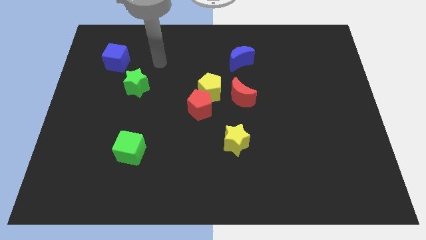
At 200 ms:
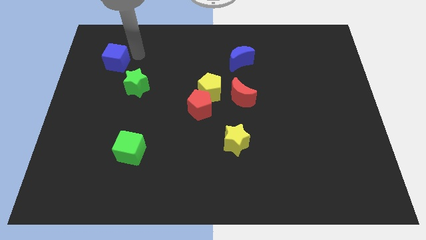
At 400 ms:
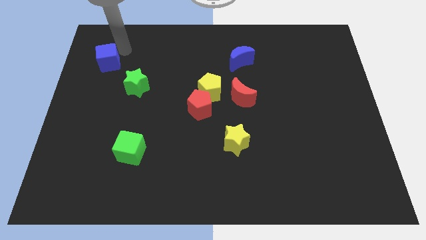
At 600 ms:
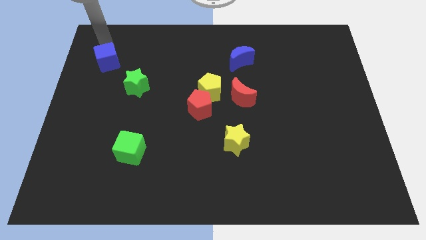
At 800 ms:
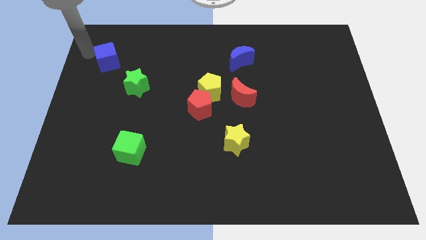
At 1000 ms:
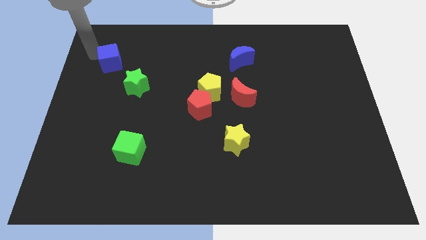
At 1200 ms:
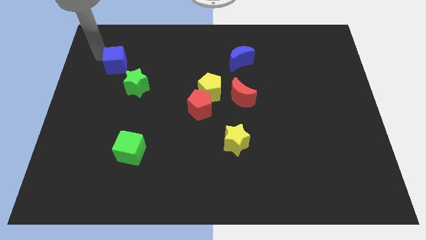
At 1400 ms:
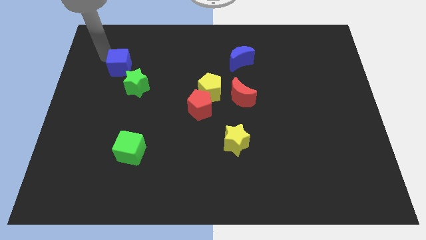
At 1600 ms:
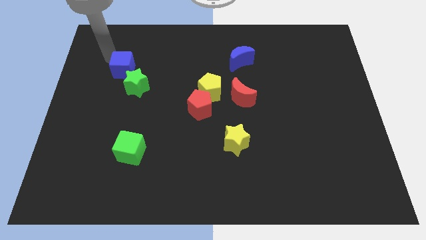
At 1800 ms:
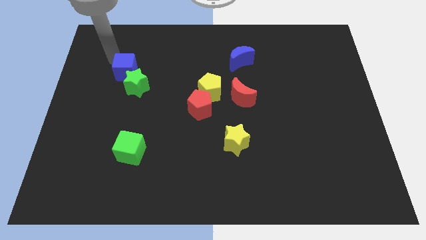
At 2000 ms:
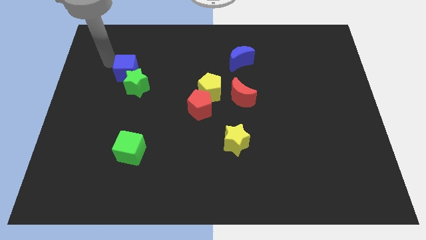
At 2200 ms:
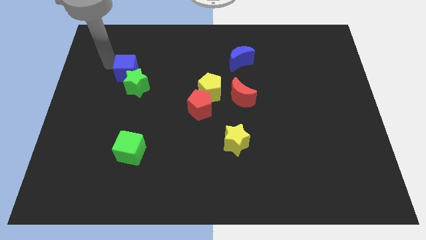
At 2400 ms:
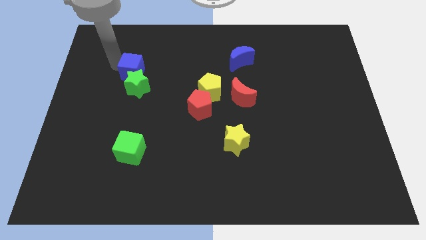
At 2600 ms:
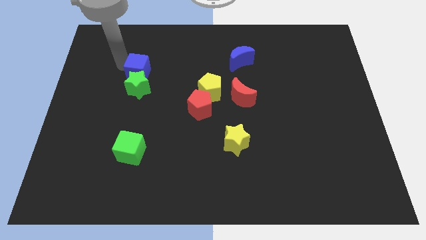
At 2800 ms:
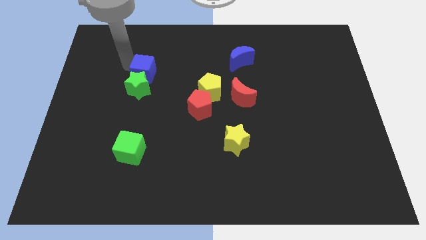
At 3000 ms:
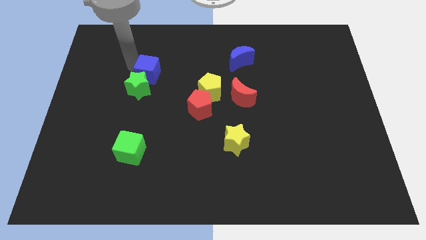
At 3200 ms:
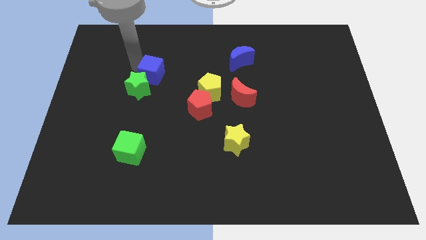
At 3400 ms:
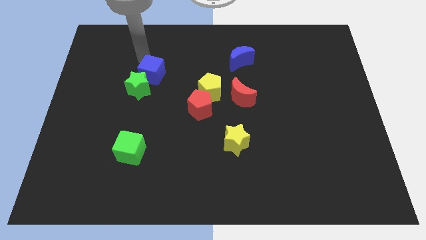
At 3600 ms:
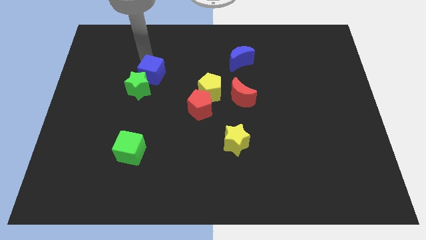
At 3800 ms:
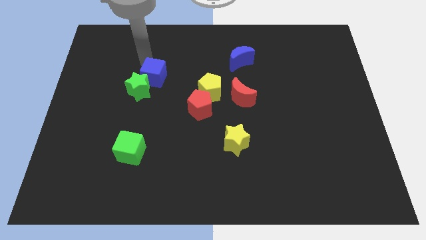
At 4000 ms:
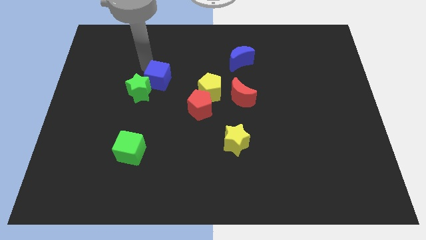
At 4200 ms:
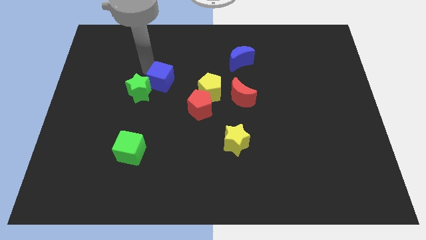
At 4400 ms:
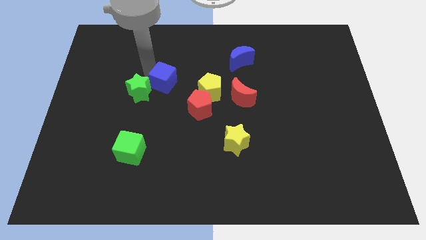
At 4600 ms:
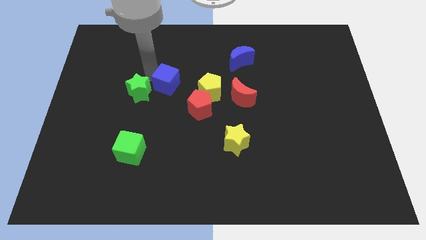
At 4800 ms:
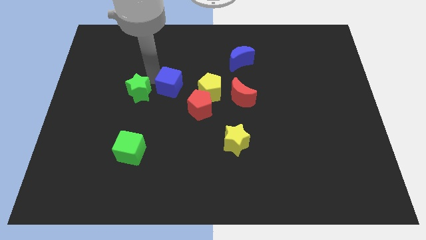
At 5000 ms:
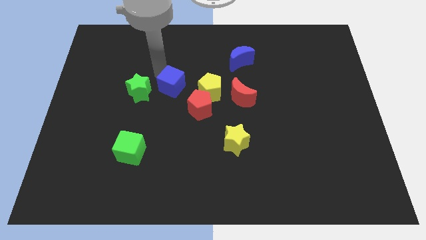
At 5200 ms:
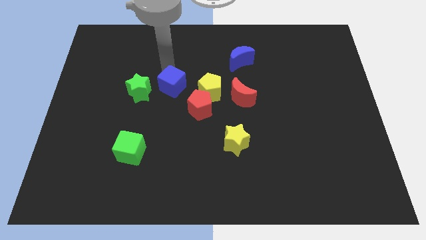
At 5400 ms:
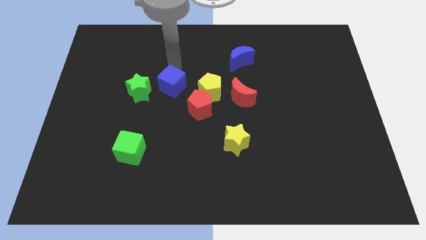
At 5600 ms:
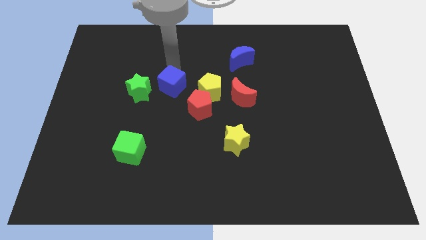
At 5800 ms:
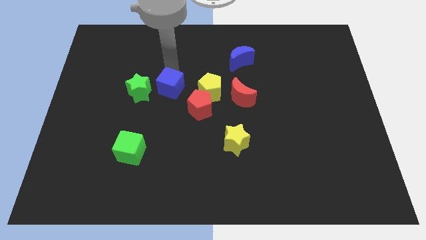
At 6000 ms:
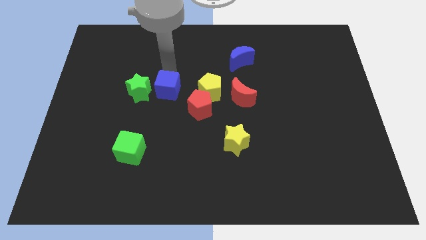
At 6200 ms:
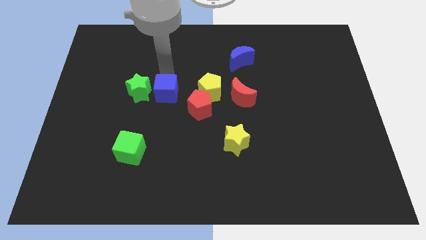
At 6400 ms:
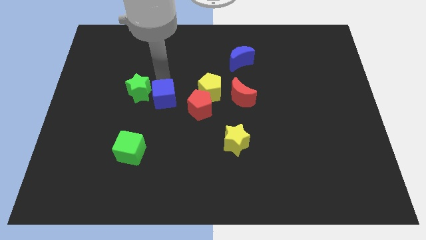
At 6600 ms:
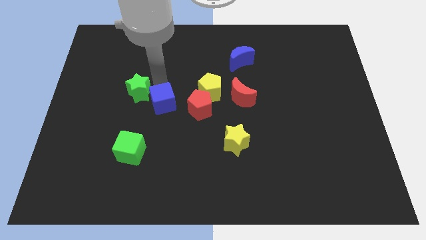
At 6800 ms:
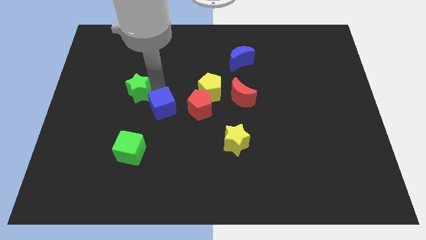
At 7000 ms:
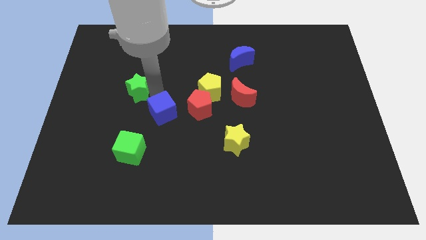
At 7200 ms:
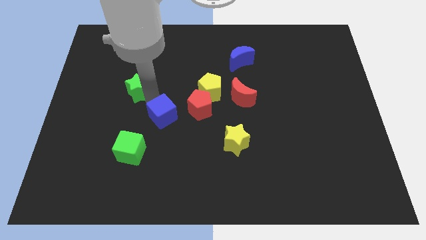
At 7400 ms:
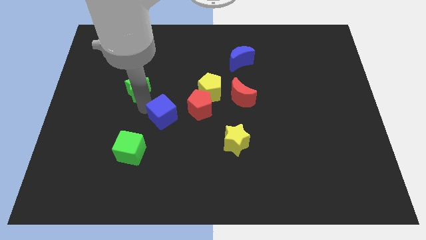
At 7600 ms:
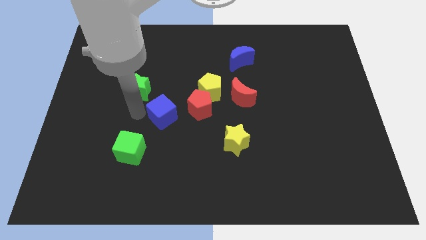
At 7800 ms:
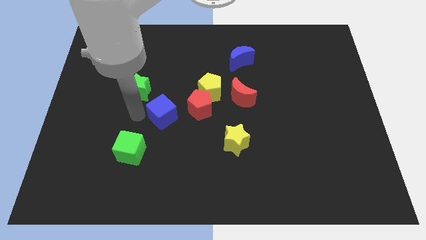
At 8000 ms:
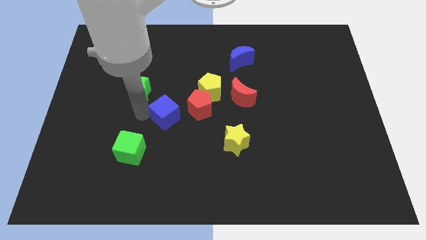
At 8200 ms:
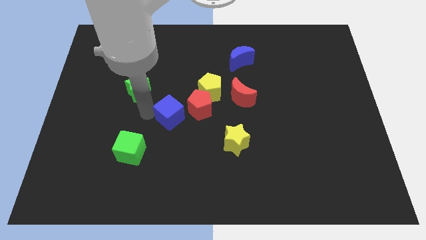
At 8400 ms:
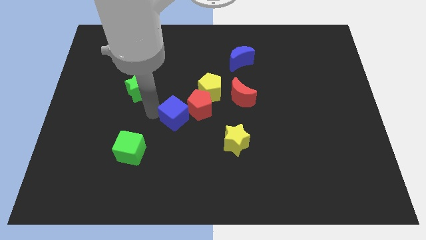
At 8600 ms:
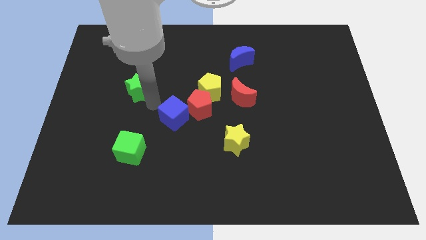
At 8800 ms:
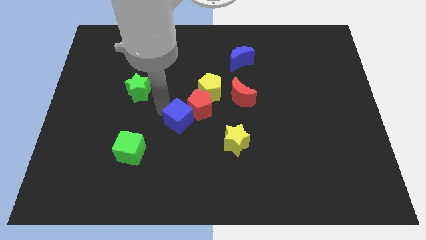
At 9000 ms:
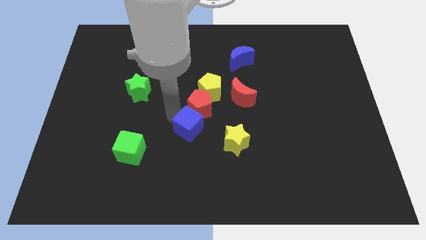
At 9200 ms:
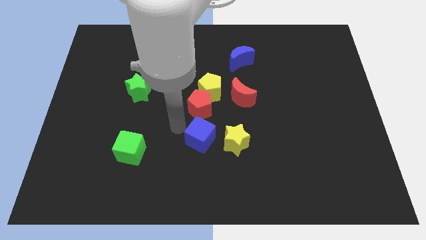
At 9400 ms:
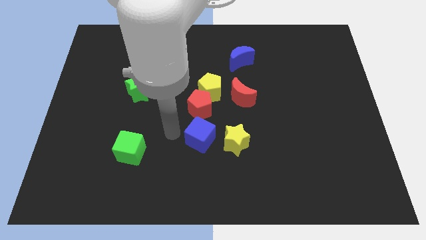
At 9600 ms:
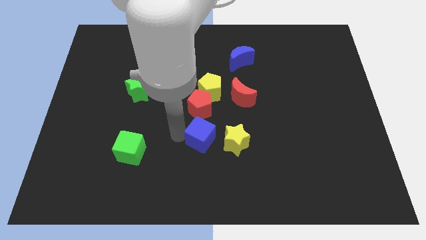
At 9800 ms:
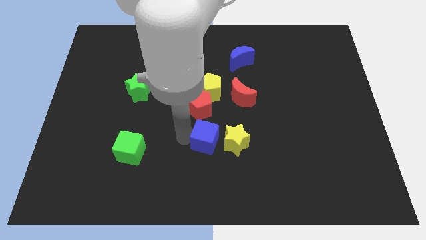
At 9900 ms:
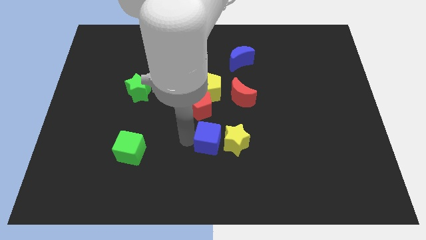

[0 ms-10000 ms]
push the blue cube towards the yellow star

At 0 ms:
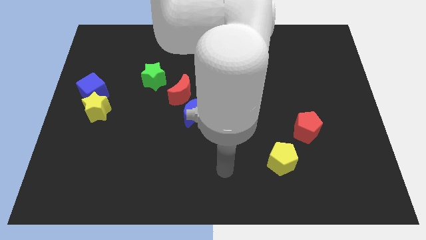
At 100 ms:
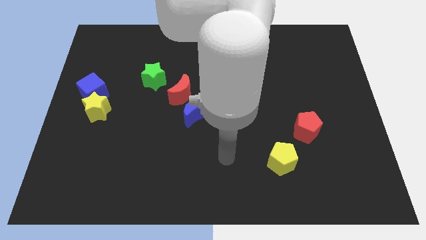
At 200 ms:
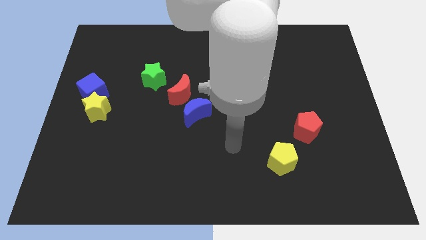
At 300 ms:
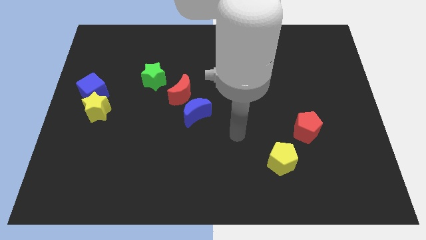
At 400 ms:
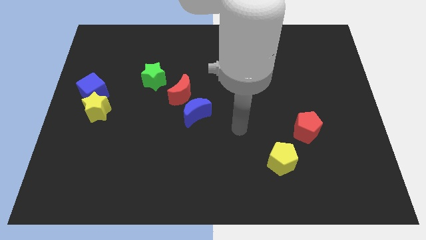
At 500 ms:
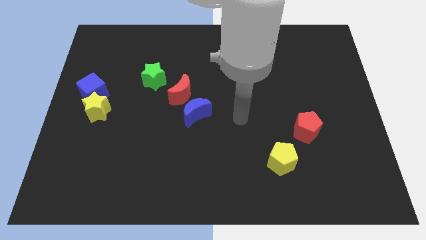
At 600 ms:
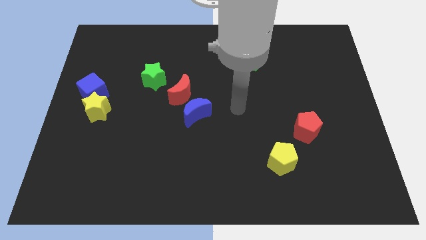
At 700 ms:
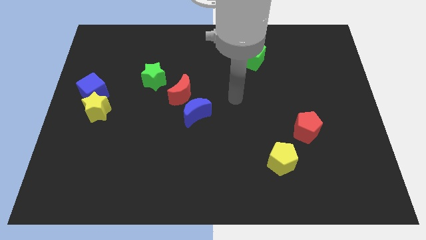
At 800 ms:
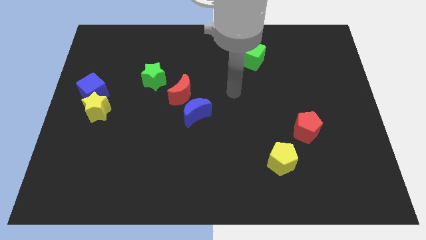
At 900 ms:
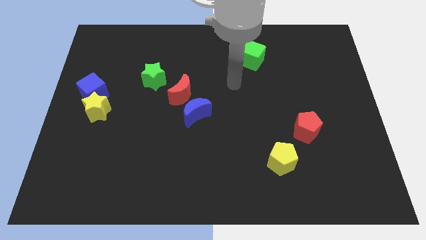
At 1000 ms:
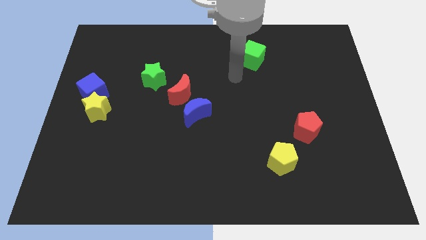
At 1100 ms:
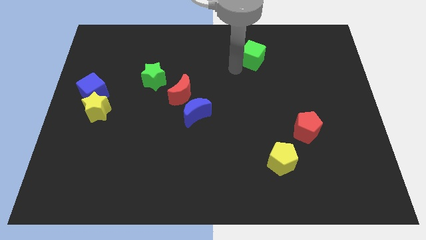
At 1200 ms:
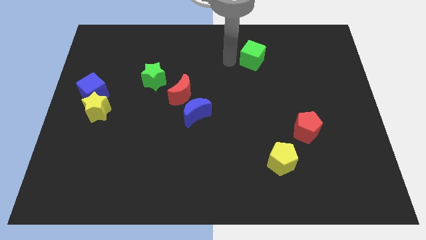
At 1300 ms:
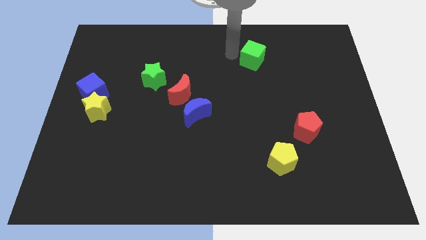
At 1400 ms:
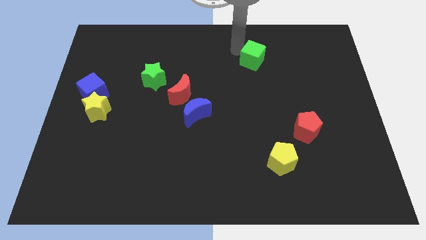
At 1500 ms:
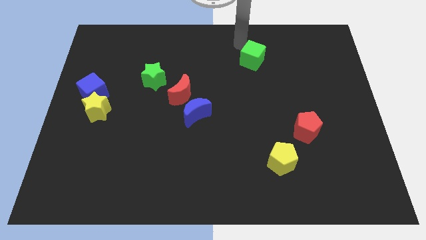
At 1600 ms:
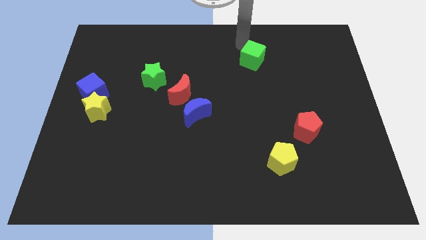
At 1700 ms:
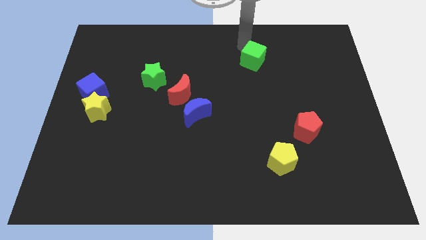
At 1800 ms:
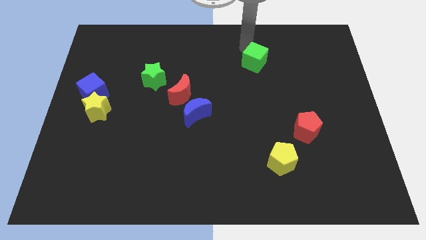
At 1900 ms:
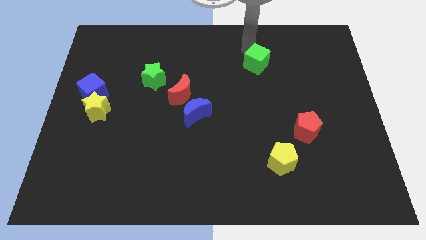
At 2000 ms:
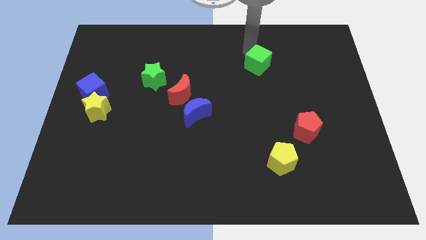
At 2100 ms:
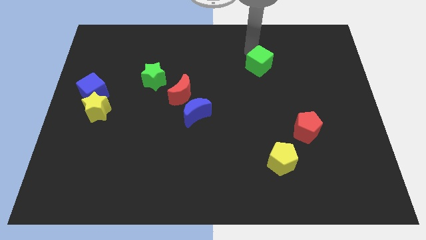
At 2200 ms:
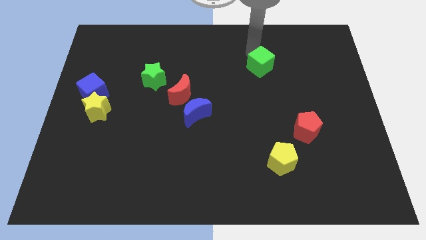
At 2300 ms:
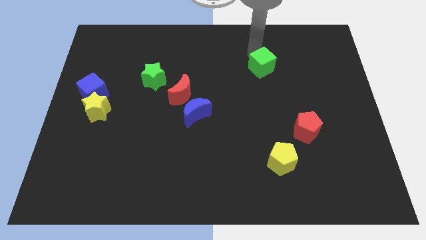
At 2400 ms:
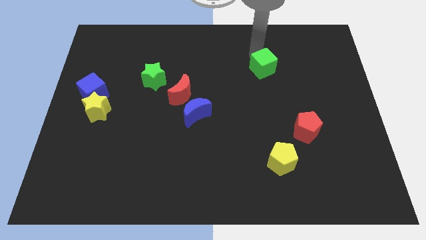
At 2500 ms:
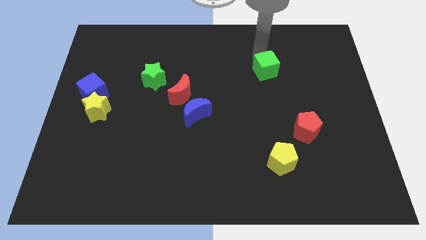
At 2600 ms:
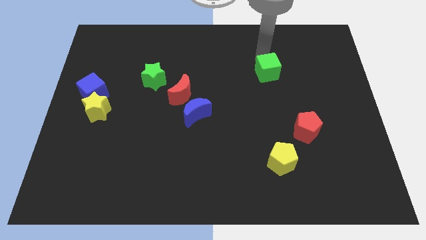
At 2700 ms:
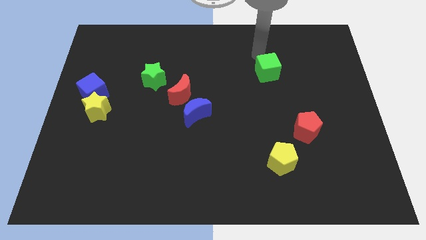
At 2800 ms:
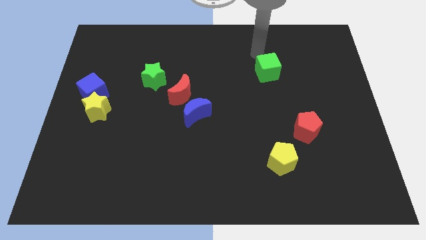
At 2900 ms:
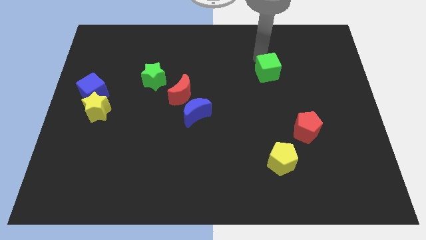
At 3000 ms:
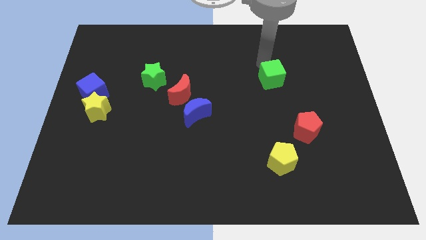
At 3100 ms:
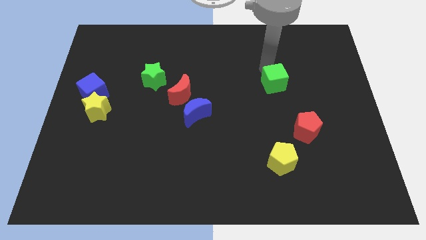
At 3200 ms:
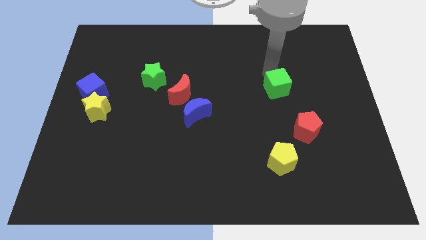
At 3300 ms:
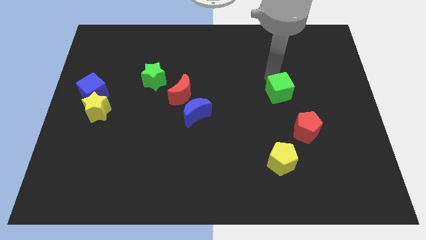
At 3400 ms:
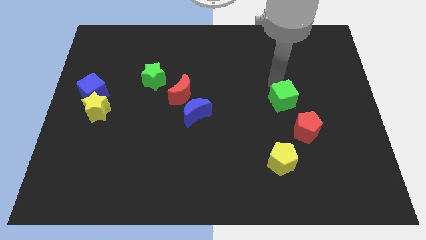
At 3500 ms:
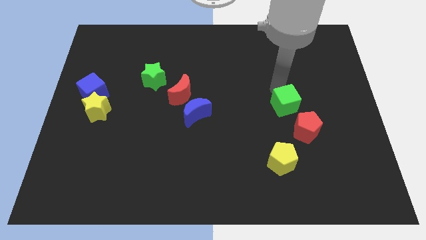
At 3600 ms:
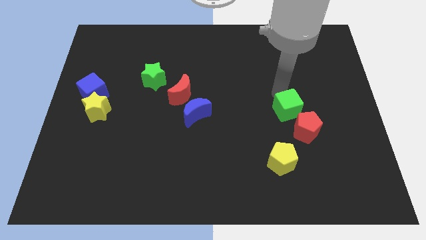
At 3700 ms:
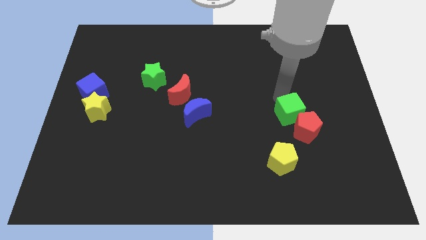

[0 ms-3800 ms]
slide the green cube close to the red pentagon
